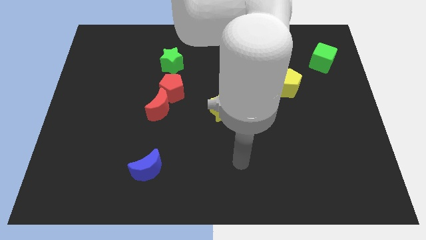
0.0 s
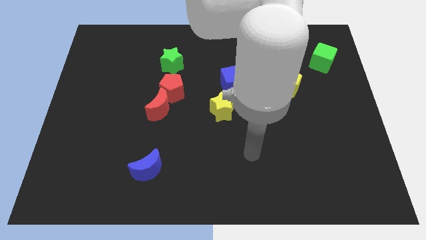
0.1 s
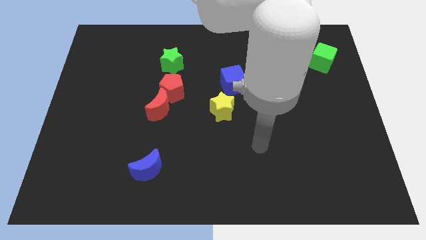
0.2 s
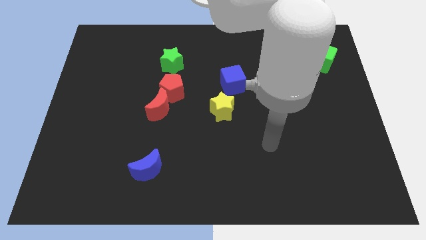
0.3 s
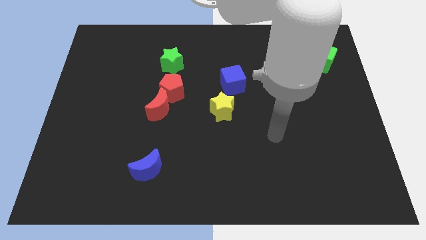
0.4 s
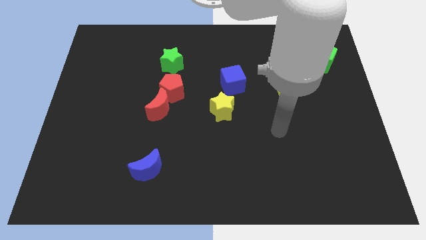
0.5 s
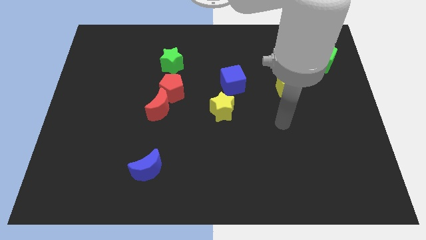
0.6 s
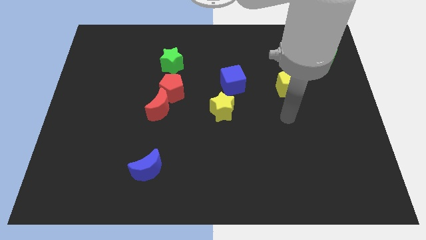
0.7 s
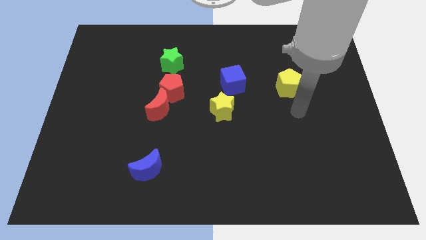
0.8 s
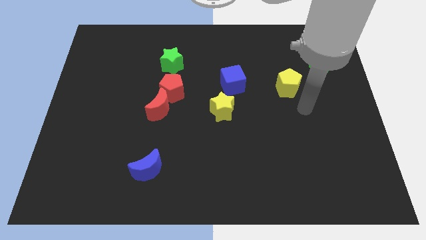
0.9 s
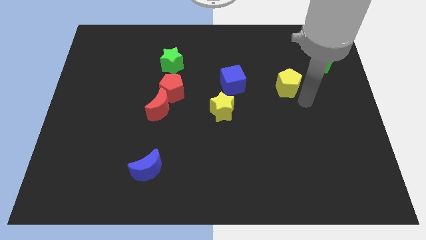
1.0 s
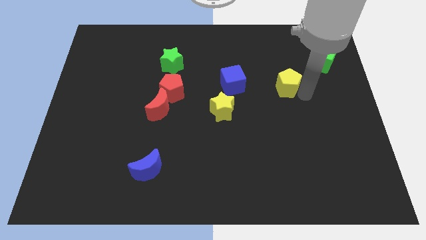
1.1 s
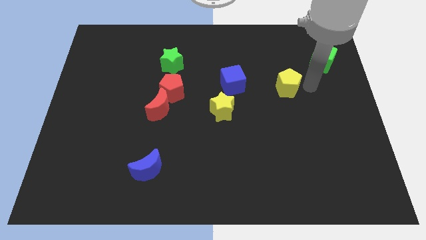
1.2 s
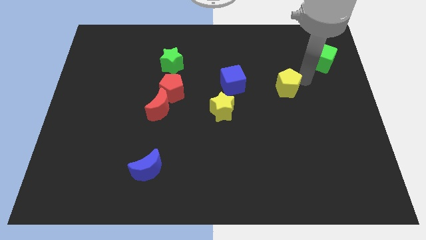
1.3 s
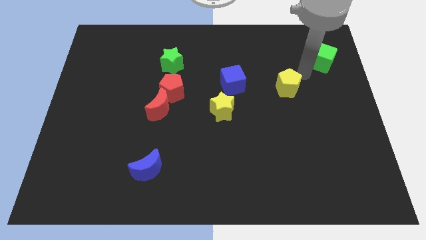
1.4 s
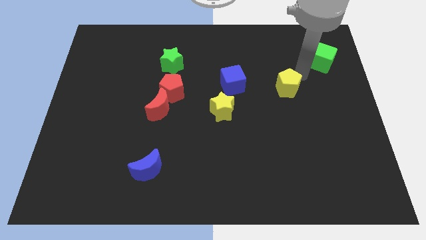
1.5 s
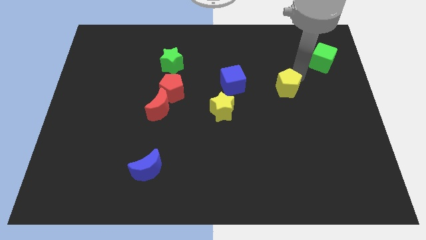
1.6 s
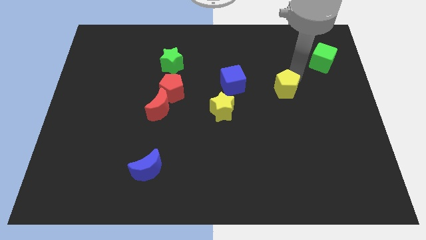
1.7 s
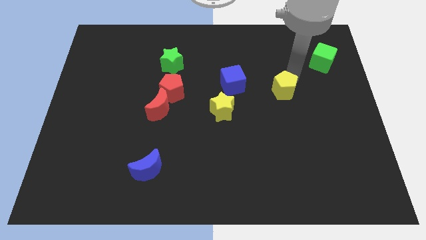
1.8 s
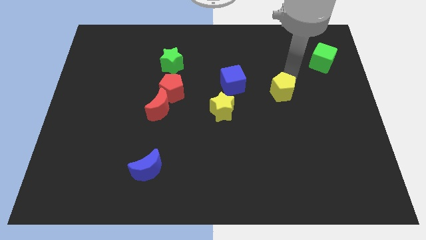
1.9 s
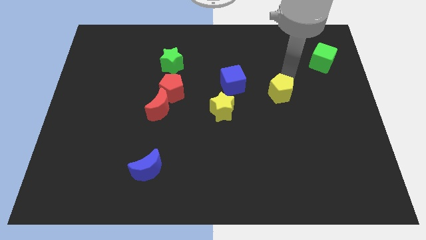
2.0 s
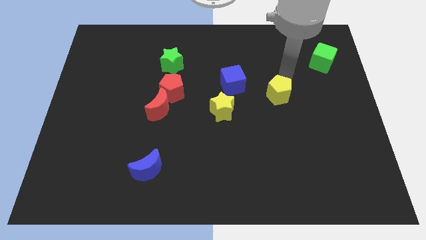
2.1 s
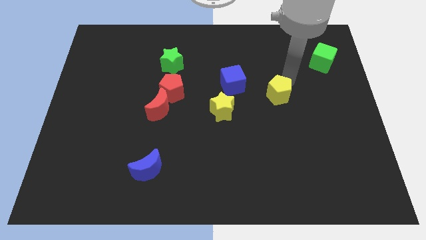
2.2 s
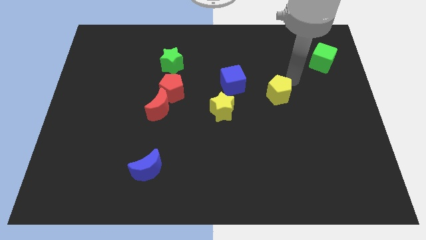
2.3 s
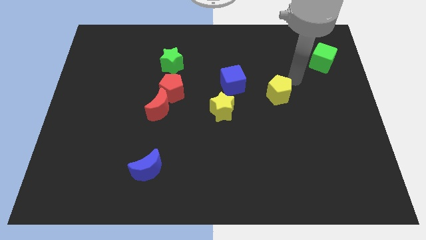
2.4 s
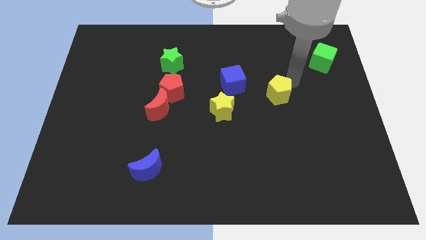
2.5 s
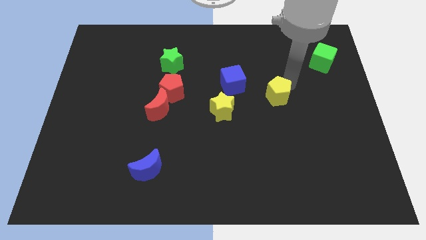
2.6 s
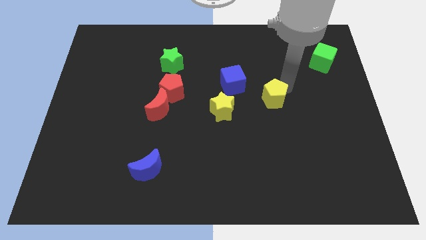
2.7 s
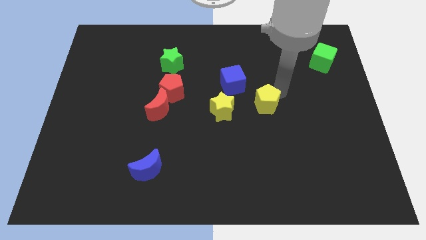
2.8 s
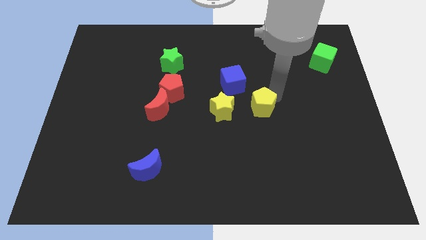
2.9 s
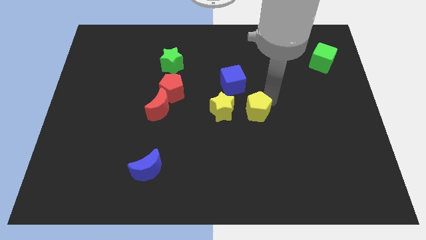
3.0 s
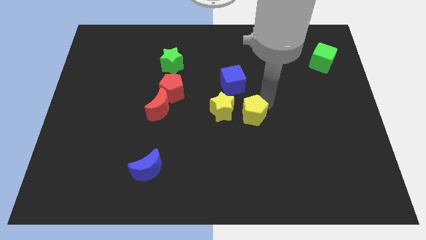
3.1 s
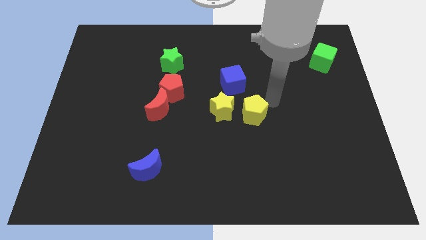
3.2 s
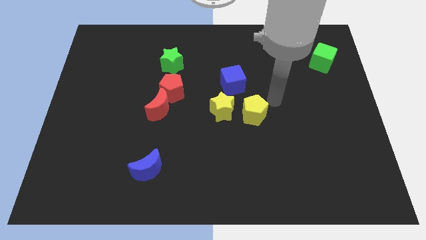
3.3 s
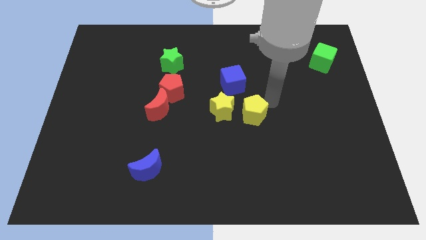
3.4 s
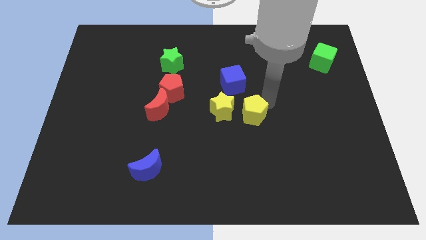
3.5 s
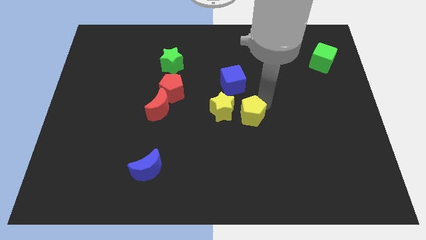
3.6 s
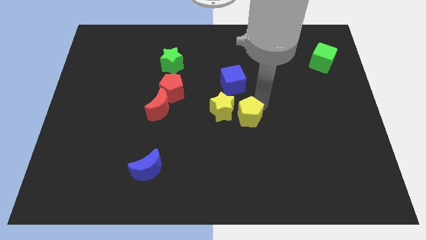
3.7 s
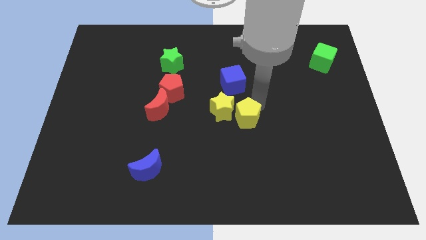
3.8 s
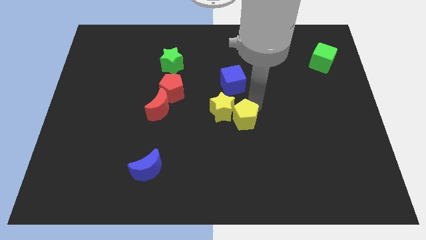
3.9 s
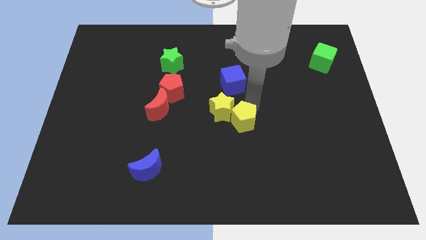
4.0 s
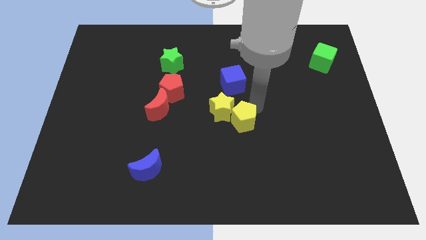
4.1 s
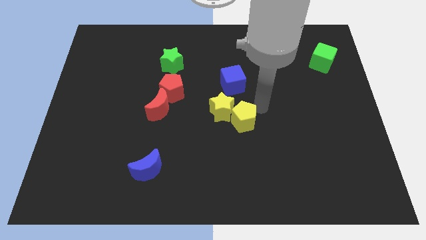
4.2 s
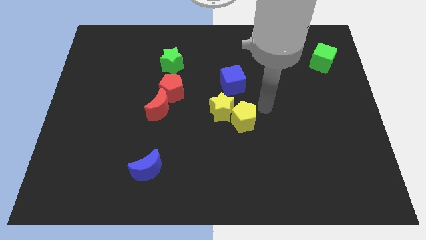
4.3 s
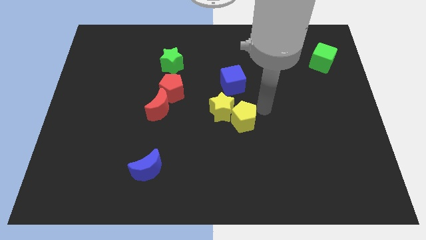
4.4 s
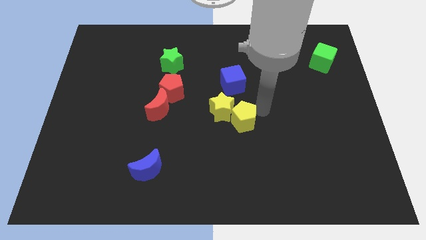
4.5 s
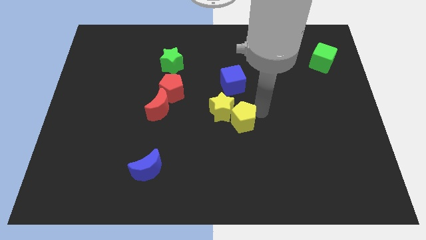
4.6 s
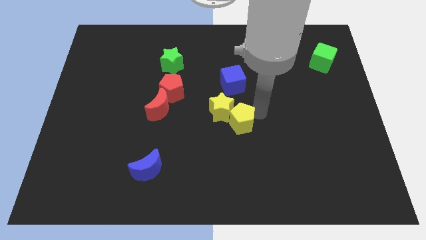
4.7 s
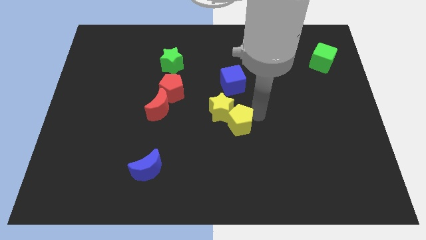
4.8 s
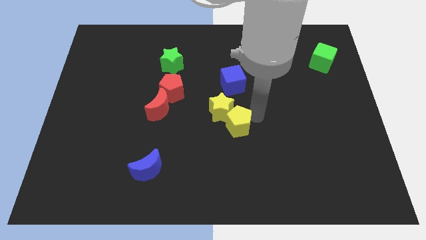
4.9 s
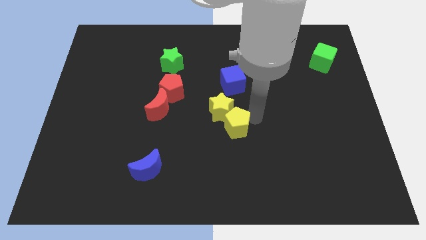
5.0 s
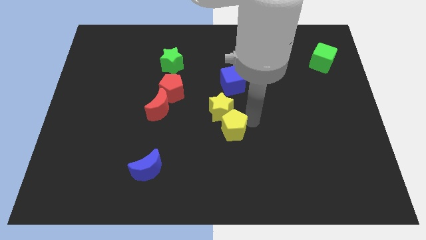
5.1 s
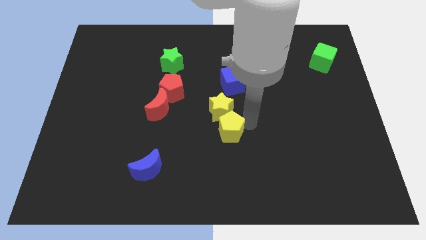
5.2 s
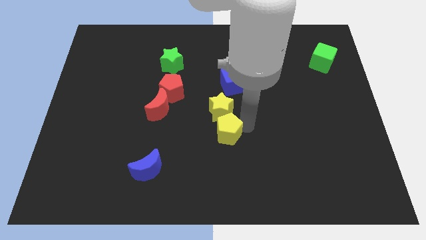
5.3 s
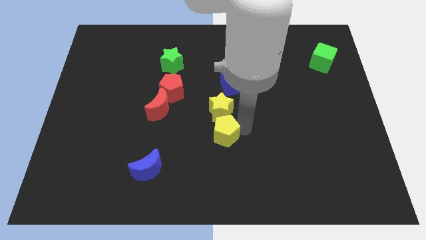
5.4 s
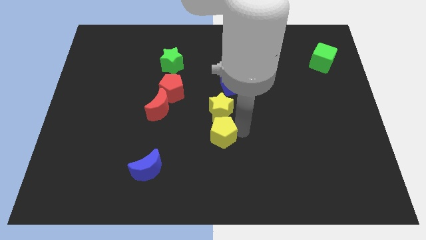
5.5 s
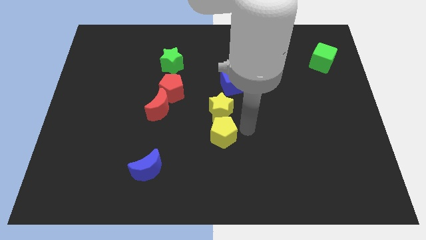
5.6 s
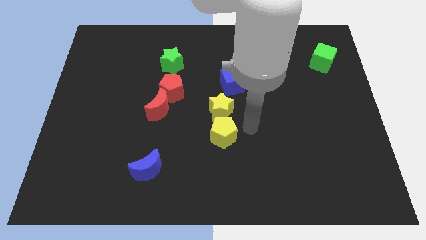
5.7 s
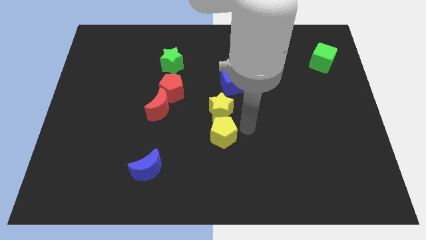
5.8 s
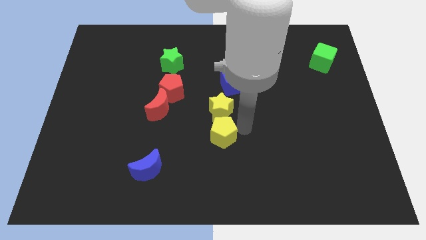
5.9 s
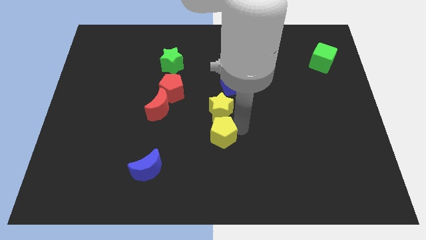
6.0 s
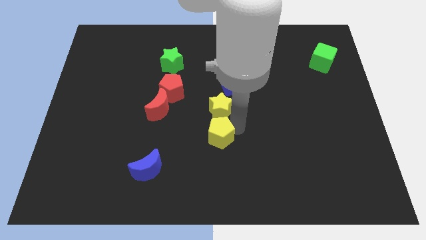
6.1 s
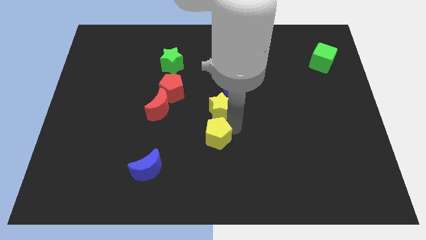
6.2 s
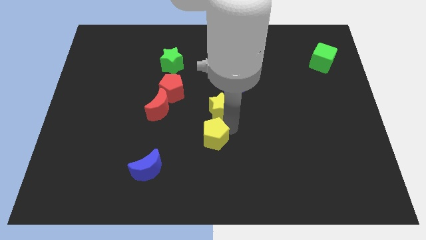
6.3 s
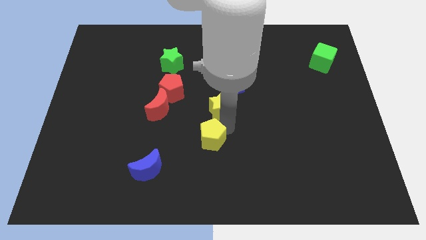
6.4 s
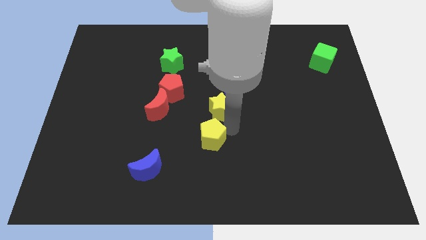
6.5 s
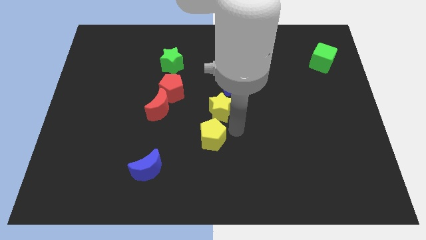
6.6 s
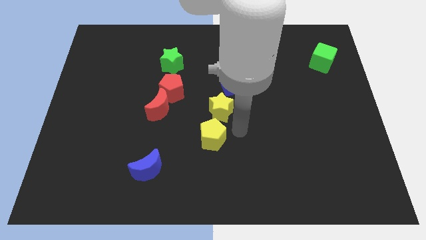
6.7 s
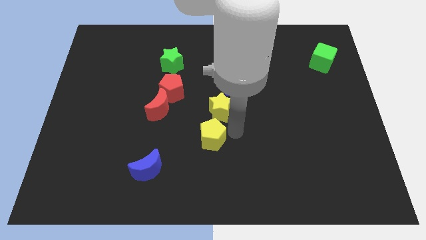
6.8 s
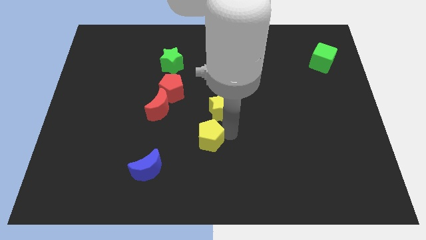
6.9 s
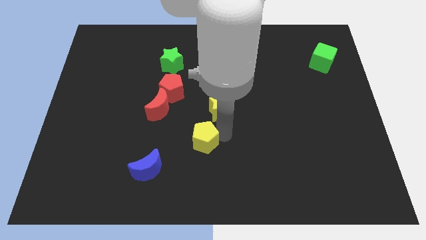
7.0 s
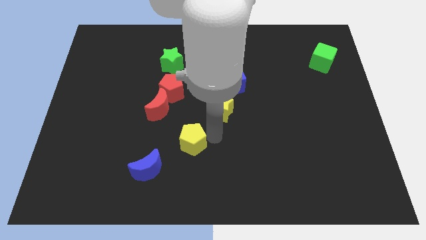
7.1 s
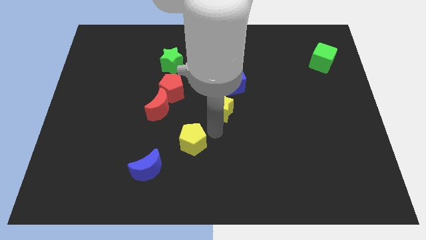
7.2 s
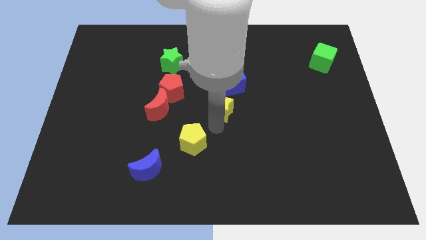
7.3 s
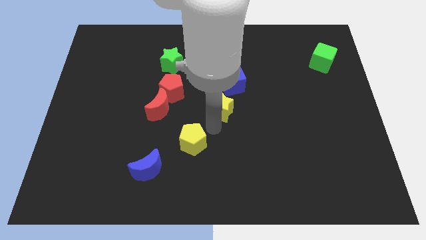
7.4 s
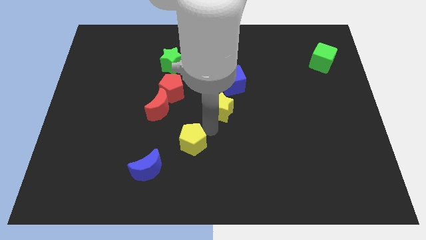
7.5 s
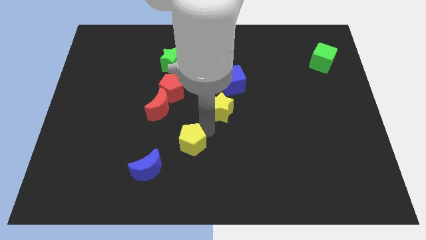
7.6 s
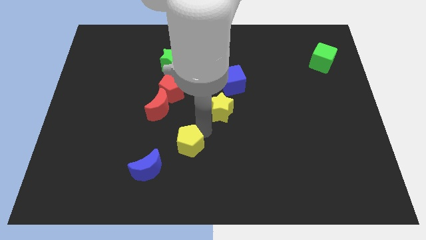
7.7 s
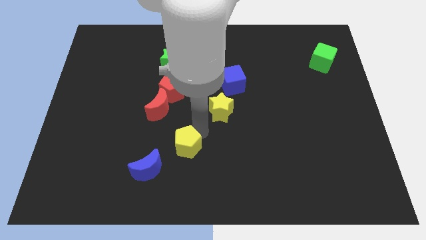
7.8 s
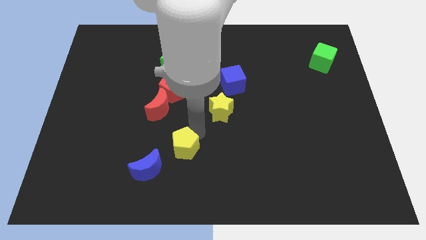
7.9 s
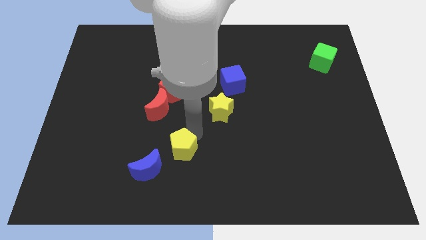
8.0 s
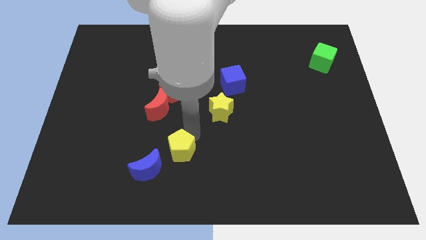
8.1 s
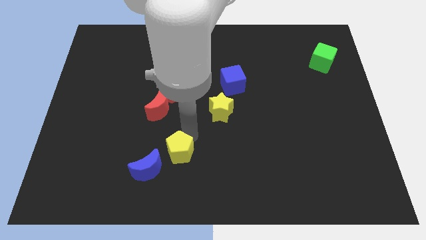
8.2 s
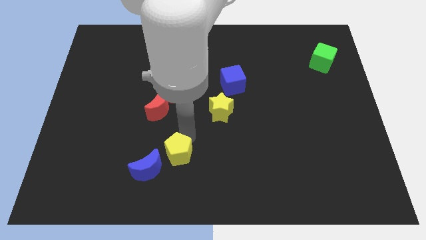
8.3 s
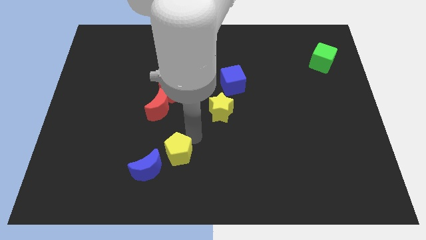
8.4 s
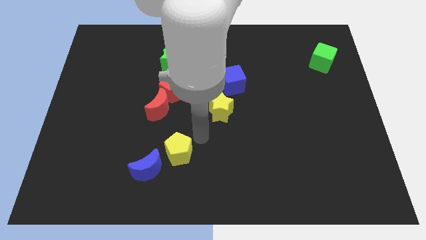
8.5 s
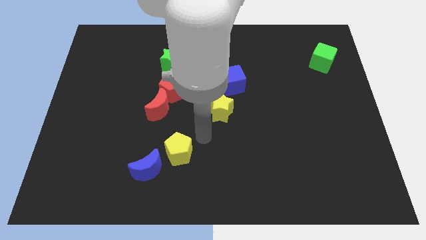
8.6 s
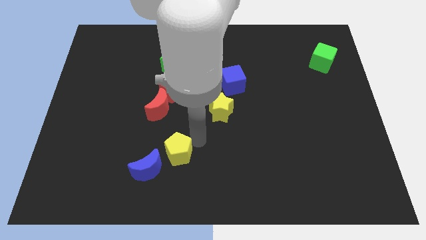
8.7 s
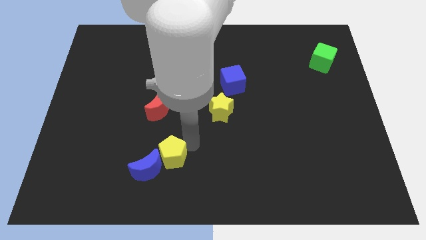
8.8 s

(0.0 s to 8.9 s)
put the yellow pentagon close to the blue moon
